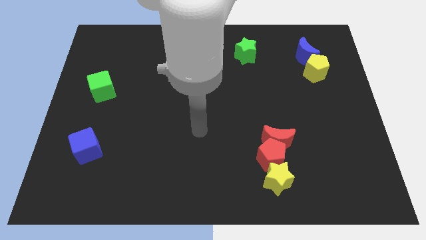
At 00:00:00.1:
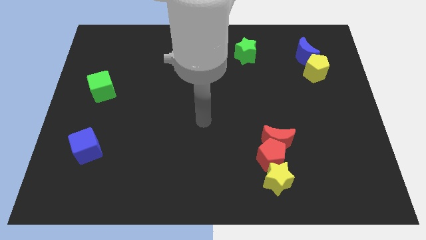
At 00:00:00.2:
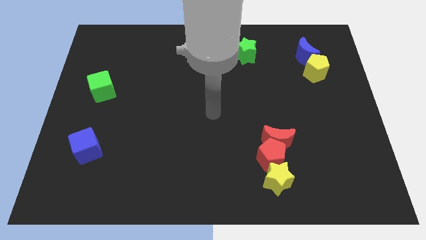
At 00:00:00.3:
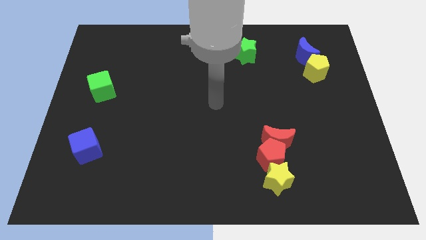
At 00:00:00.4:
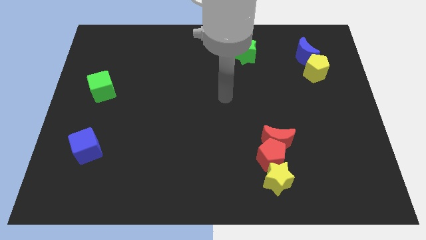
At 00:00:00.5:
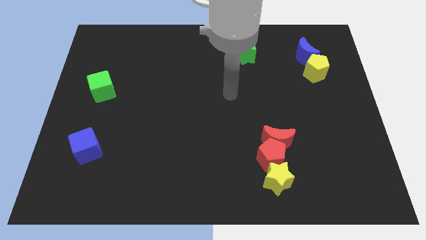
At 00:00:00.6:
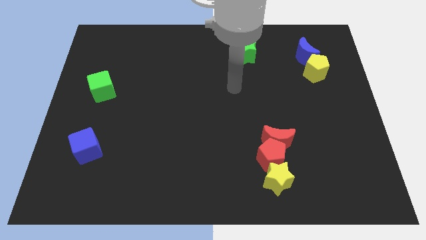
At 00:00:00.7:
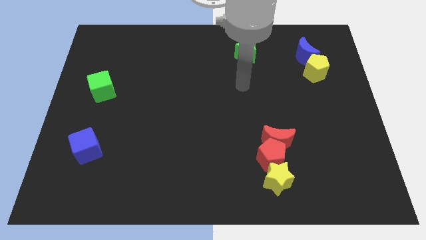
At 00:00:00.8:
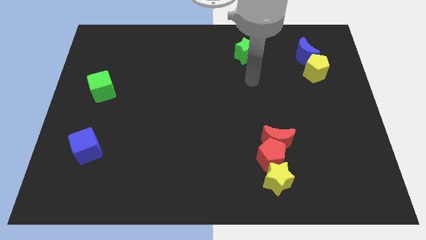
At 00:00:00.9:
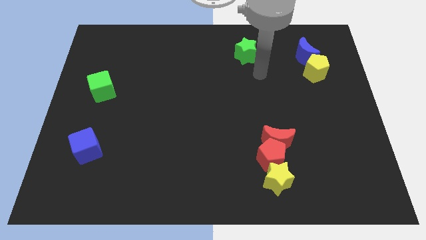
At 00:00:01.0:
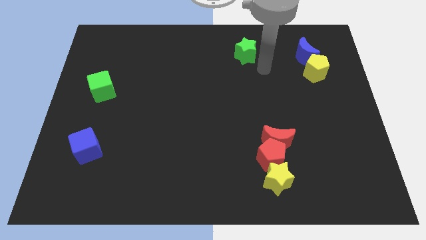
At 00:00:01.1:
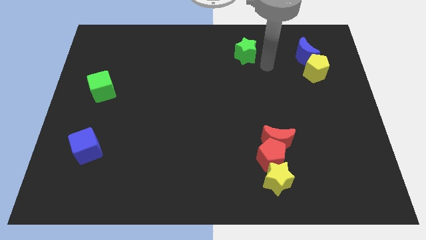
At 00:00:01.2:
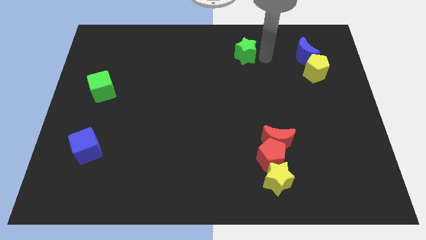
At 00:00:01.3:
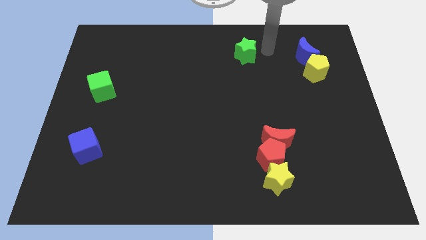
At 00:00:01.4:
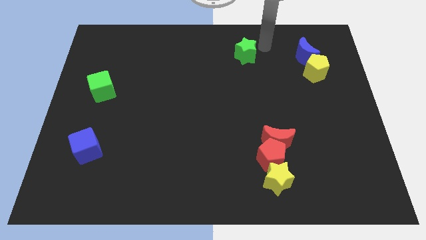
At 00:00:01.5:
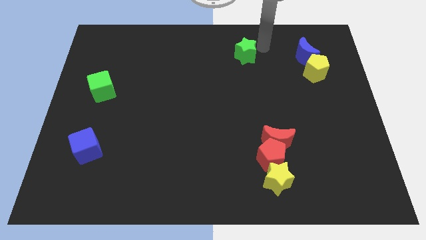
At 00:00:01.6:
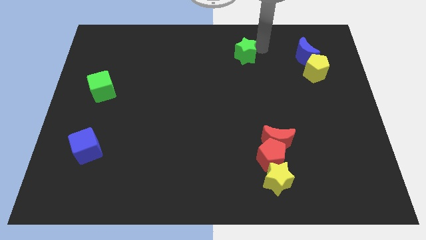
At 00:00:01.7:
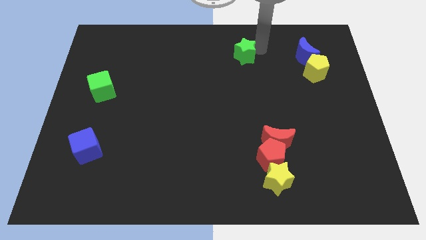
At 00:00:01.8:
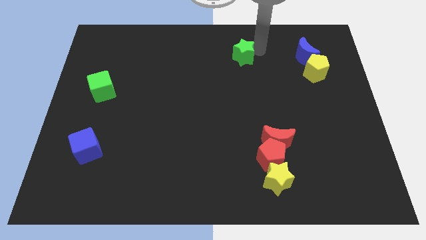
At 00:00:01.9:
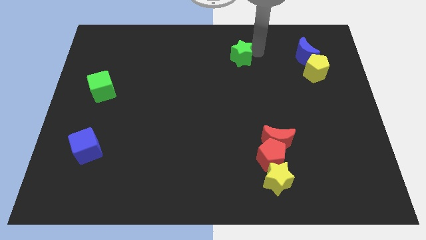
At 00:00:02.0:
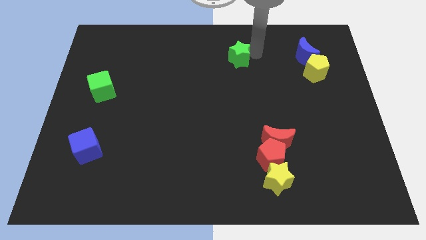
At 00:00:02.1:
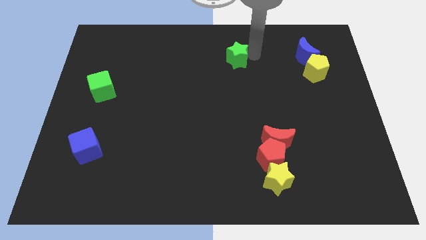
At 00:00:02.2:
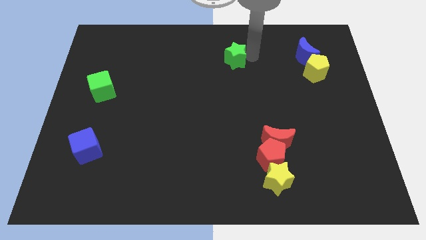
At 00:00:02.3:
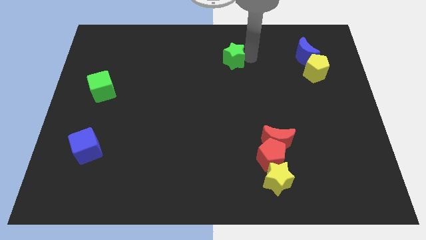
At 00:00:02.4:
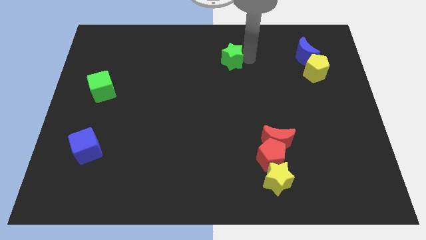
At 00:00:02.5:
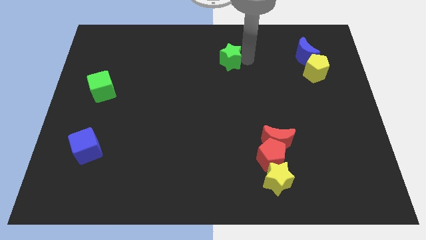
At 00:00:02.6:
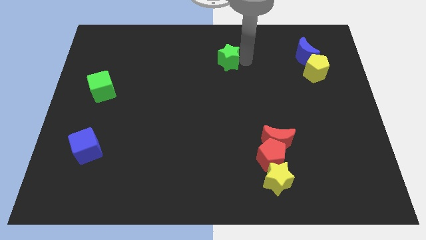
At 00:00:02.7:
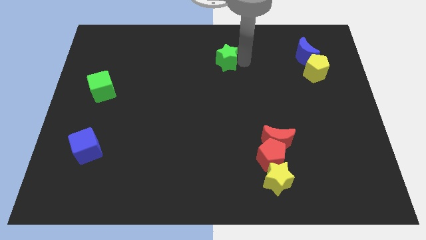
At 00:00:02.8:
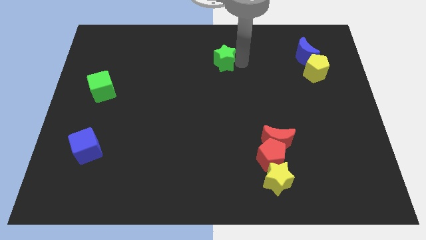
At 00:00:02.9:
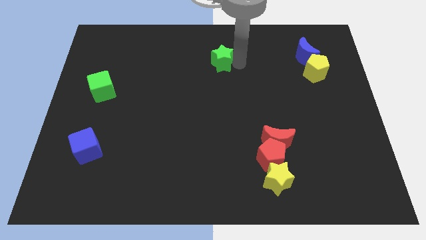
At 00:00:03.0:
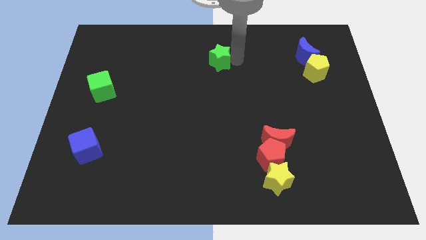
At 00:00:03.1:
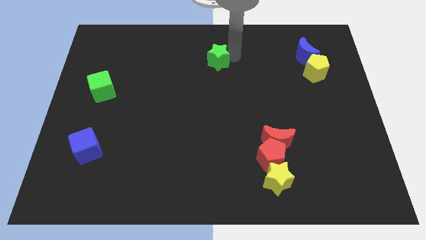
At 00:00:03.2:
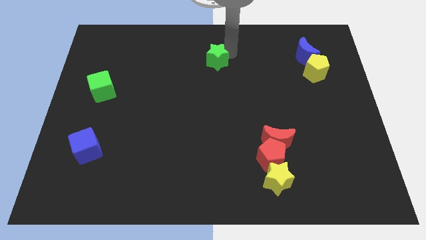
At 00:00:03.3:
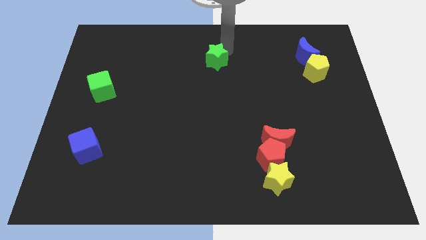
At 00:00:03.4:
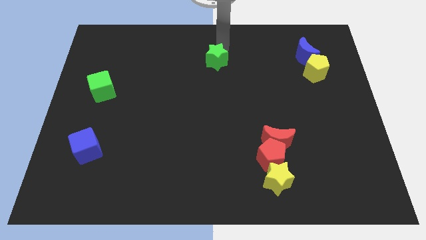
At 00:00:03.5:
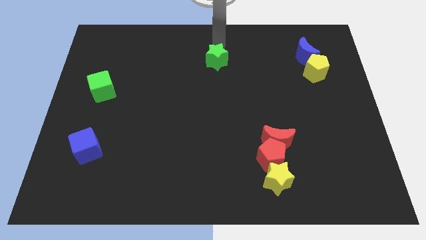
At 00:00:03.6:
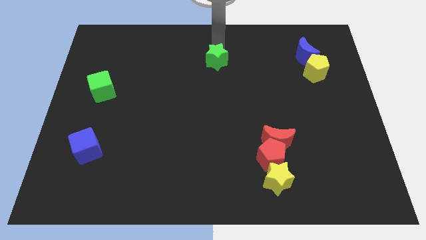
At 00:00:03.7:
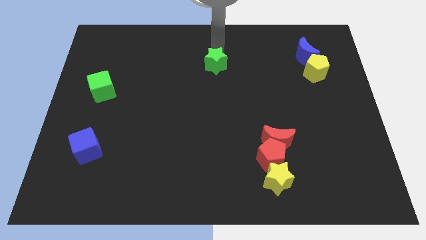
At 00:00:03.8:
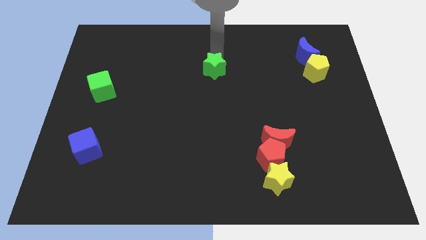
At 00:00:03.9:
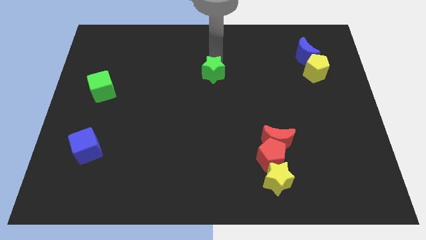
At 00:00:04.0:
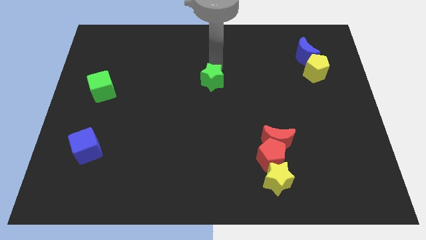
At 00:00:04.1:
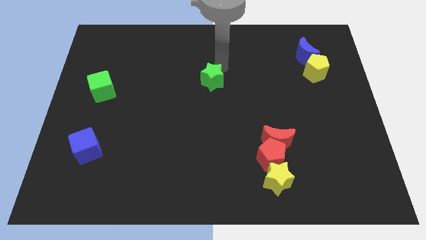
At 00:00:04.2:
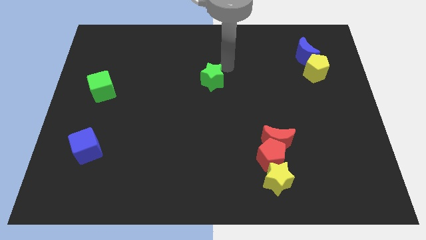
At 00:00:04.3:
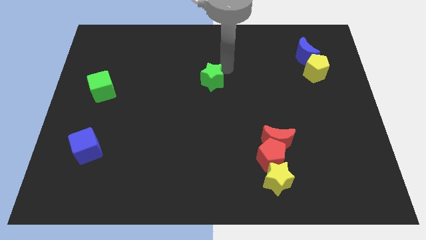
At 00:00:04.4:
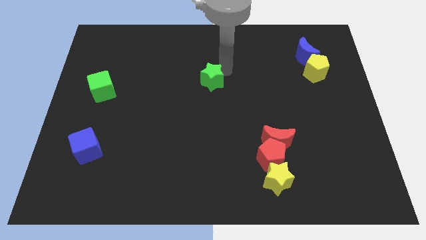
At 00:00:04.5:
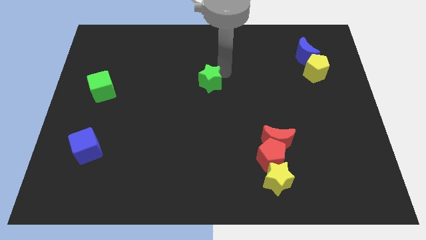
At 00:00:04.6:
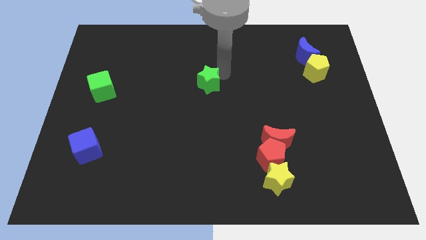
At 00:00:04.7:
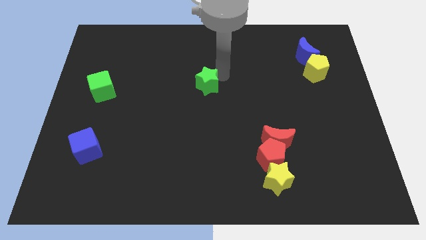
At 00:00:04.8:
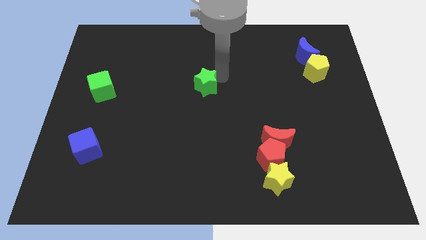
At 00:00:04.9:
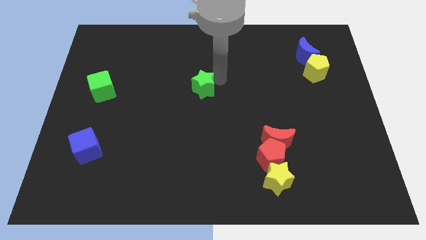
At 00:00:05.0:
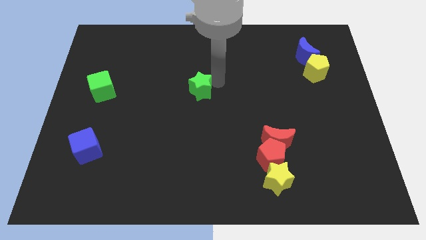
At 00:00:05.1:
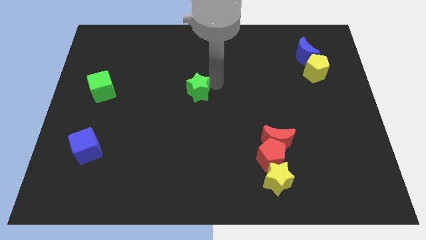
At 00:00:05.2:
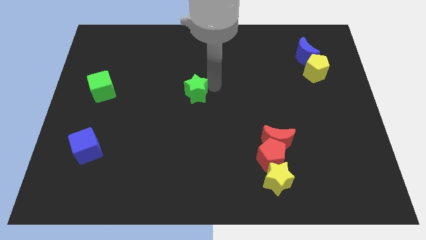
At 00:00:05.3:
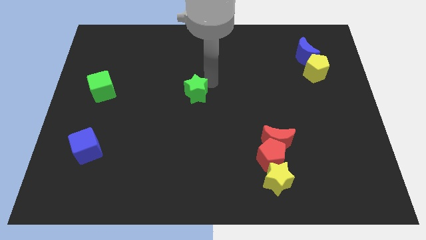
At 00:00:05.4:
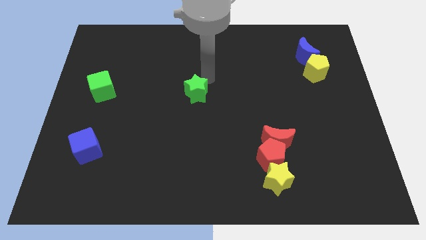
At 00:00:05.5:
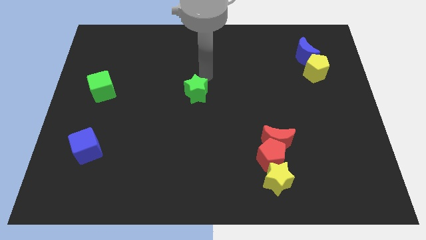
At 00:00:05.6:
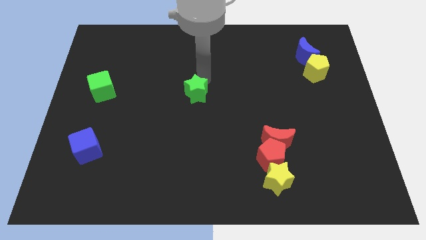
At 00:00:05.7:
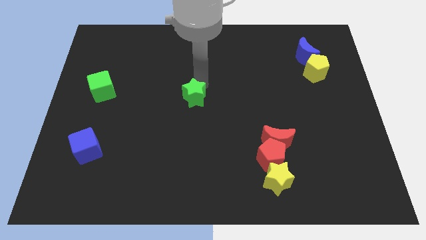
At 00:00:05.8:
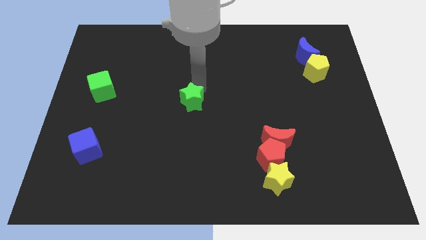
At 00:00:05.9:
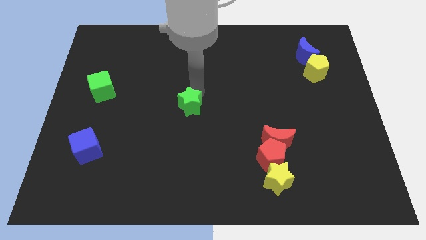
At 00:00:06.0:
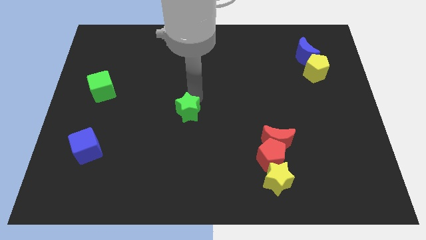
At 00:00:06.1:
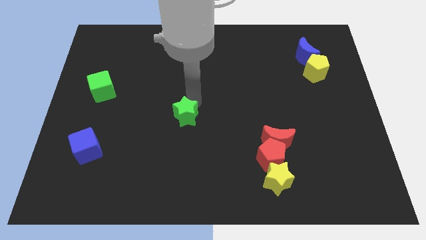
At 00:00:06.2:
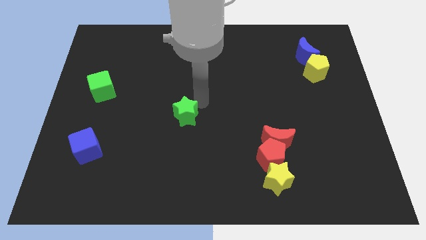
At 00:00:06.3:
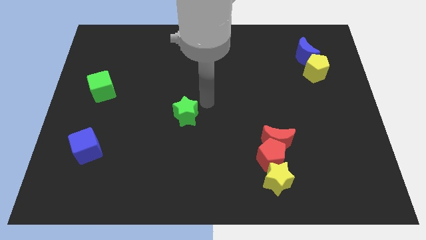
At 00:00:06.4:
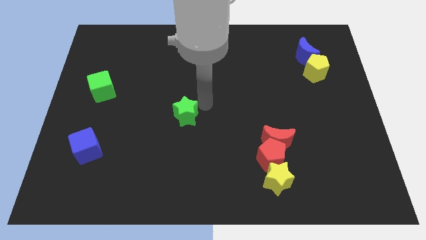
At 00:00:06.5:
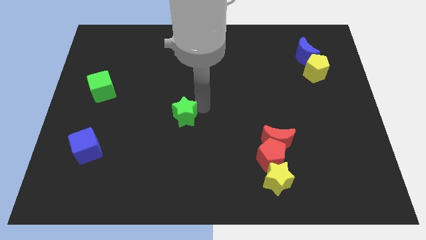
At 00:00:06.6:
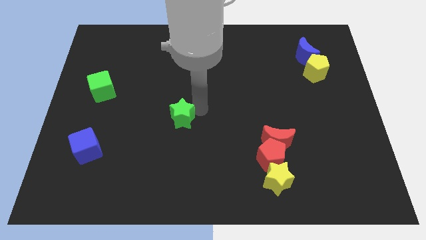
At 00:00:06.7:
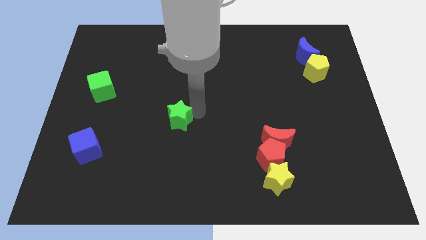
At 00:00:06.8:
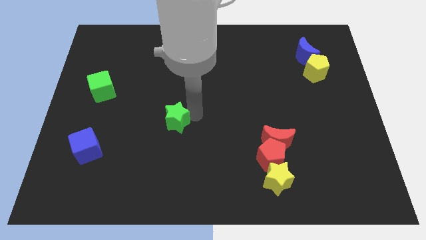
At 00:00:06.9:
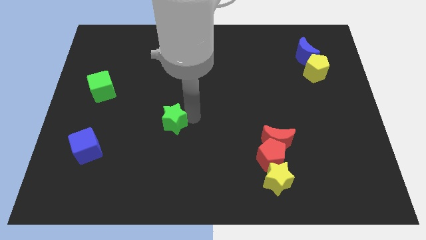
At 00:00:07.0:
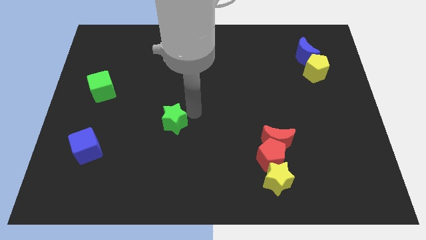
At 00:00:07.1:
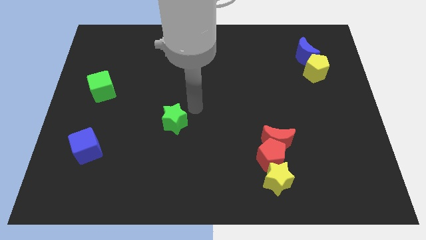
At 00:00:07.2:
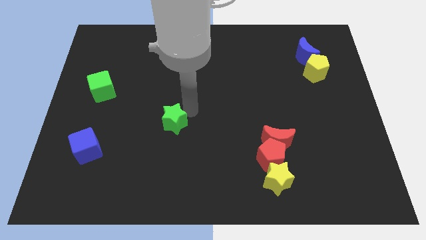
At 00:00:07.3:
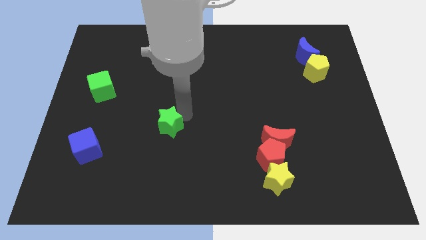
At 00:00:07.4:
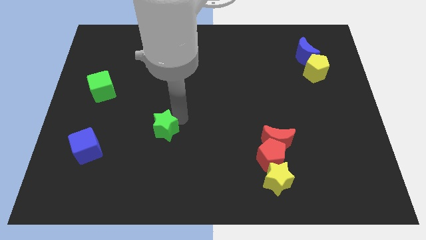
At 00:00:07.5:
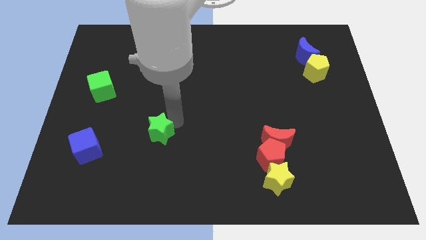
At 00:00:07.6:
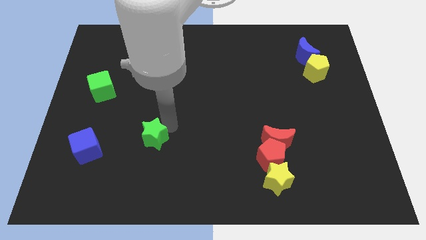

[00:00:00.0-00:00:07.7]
move the green star to the right of the blue cube
